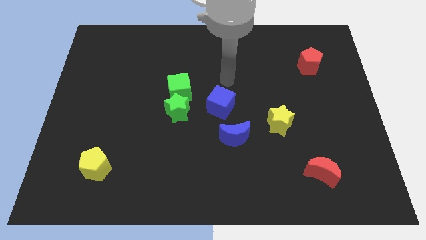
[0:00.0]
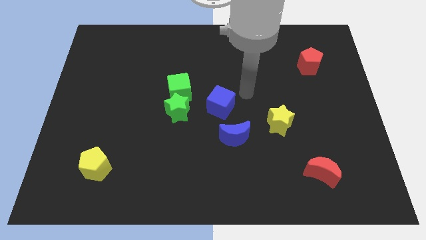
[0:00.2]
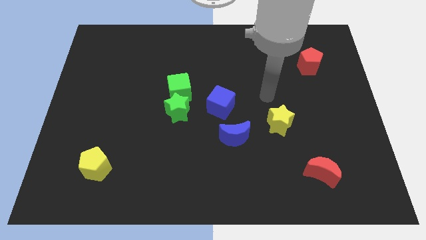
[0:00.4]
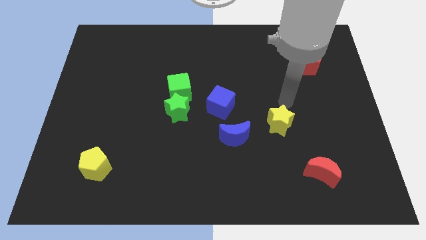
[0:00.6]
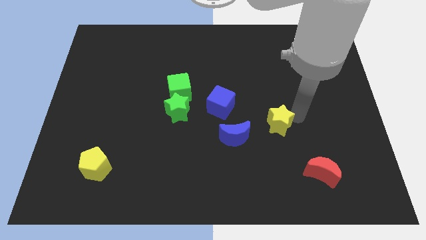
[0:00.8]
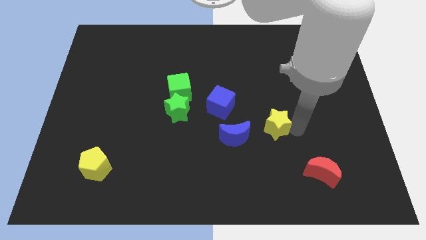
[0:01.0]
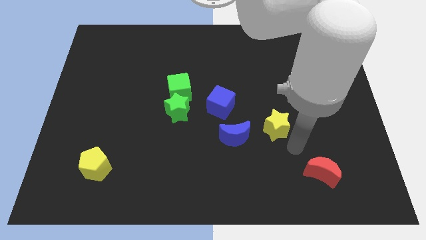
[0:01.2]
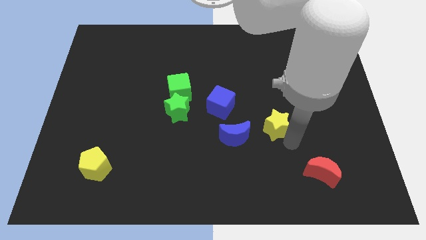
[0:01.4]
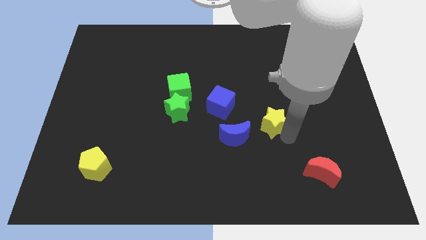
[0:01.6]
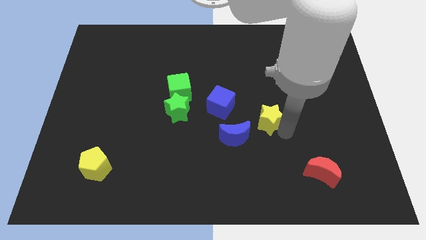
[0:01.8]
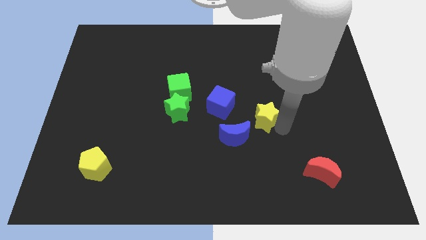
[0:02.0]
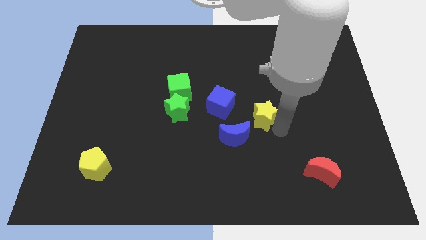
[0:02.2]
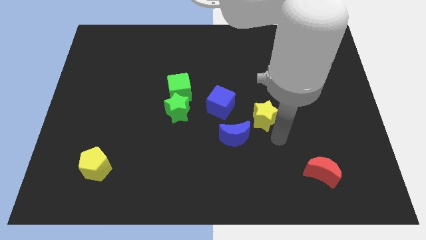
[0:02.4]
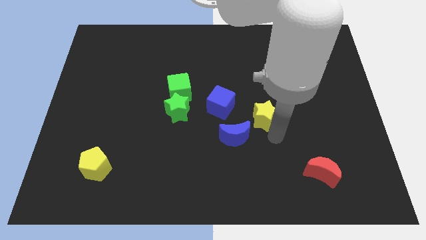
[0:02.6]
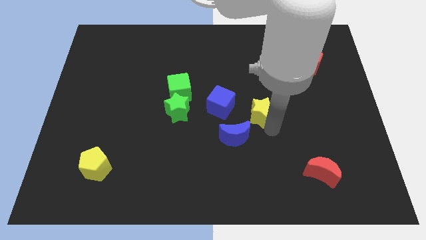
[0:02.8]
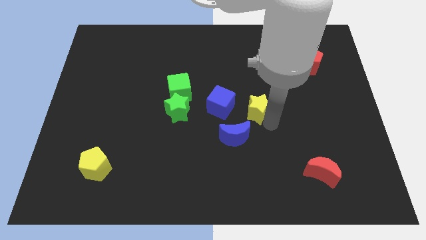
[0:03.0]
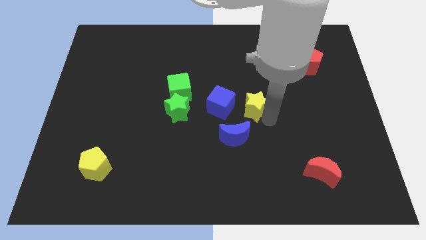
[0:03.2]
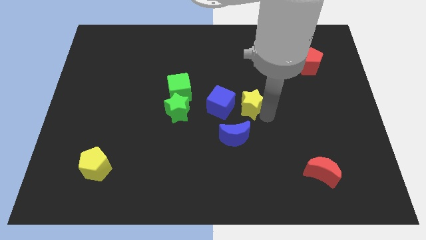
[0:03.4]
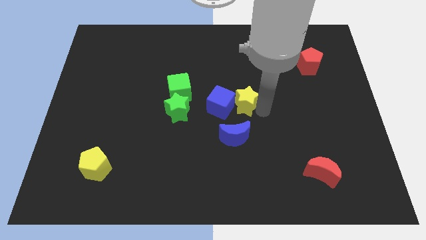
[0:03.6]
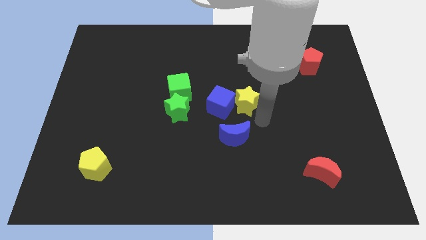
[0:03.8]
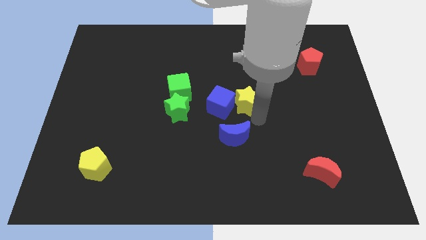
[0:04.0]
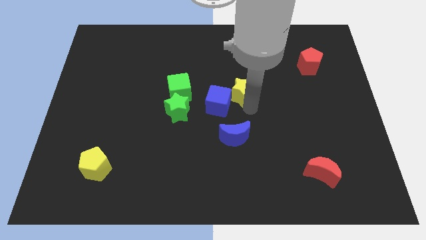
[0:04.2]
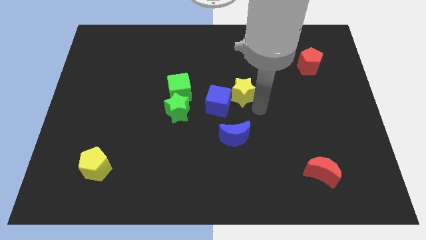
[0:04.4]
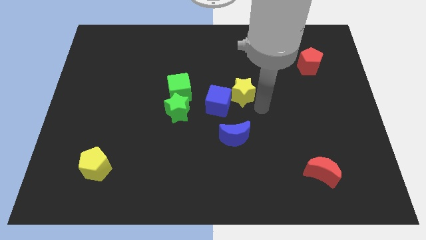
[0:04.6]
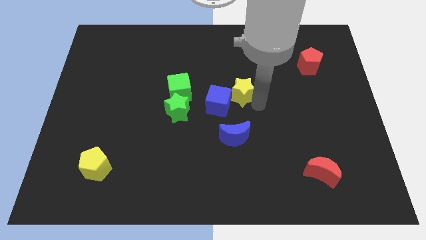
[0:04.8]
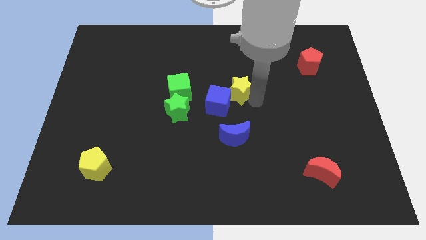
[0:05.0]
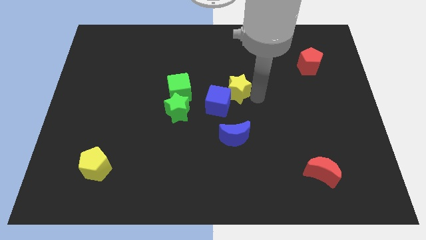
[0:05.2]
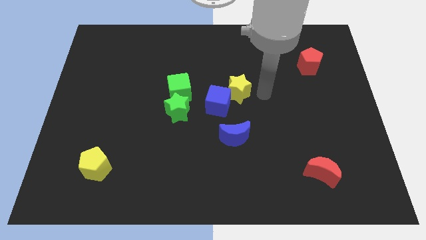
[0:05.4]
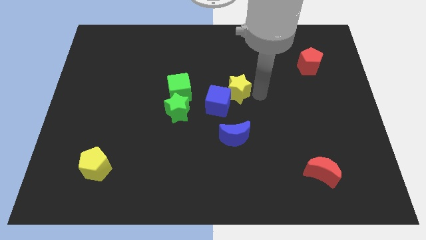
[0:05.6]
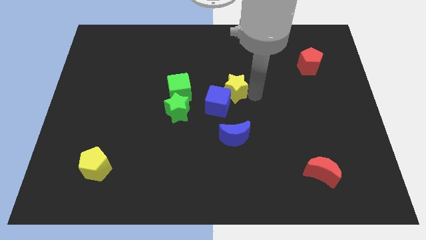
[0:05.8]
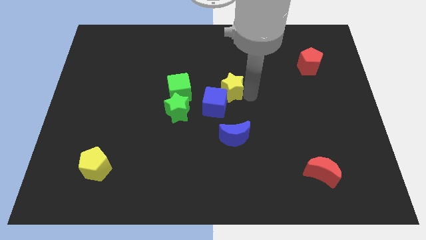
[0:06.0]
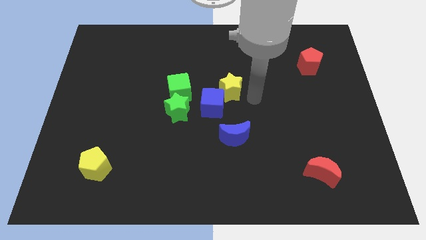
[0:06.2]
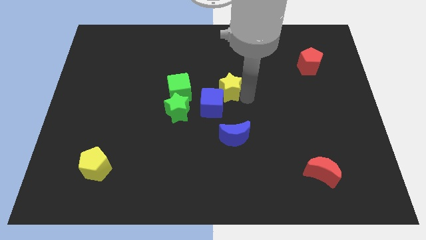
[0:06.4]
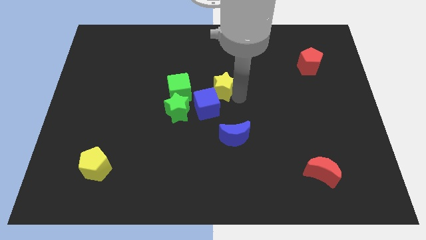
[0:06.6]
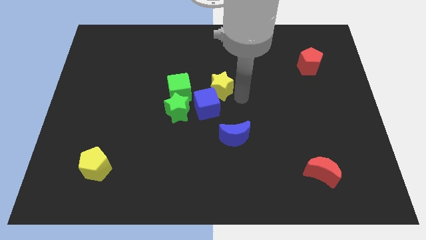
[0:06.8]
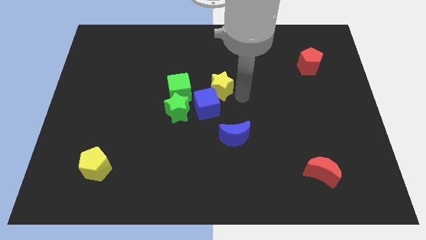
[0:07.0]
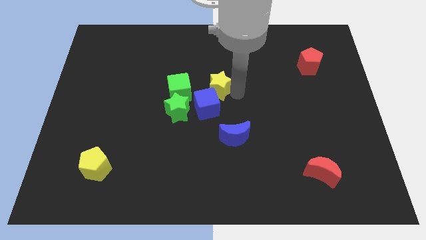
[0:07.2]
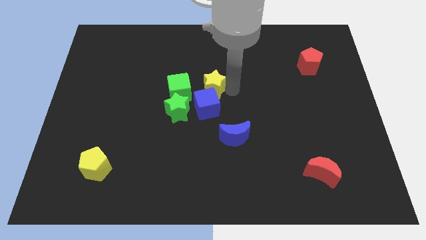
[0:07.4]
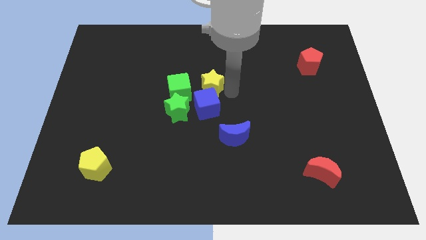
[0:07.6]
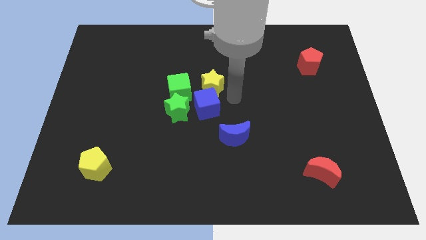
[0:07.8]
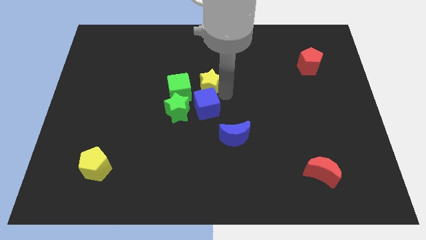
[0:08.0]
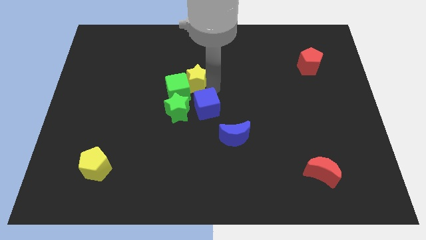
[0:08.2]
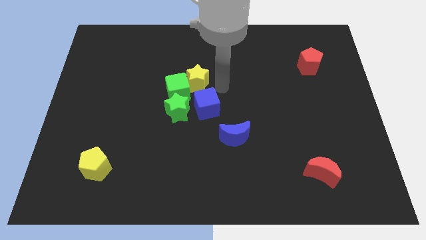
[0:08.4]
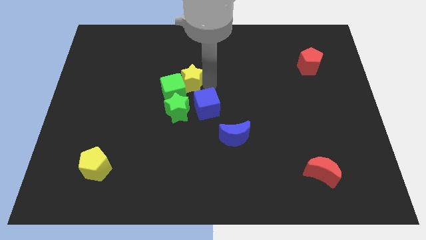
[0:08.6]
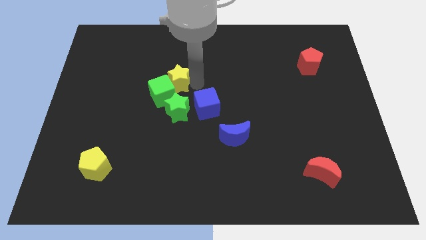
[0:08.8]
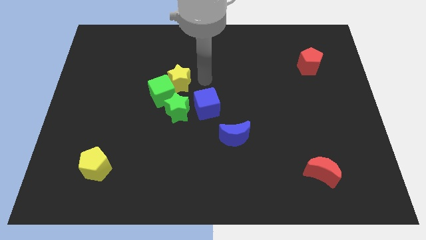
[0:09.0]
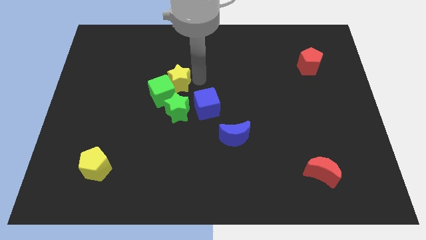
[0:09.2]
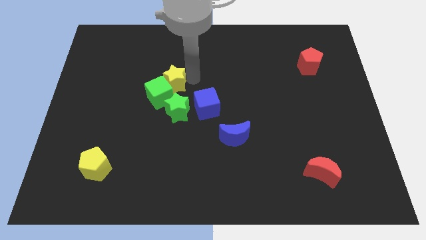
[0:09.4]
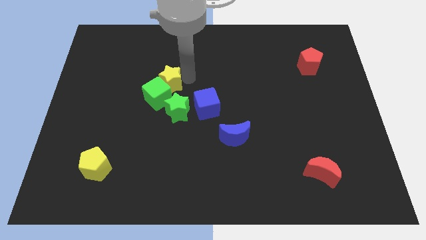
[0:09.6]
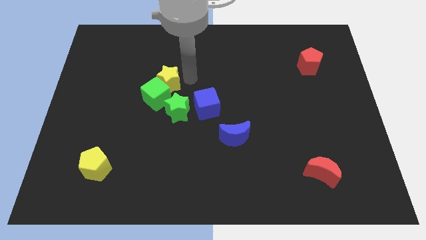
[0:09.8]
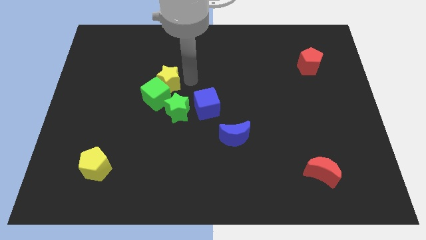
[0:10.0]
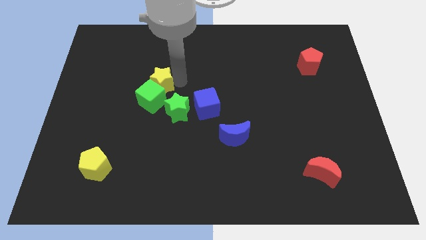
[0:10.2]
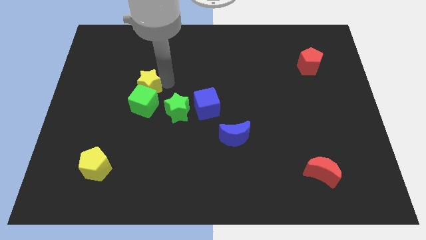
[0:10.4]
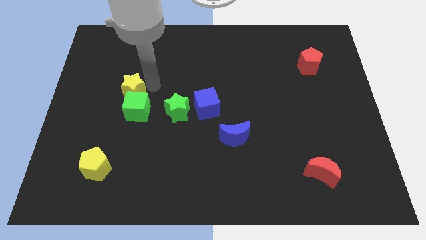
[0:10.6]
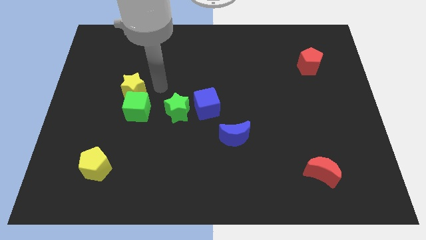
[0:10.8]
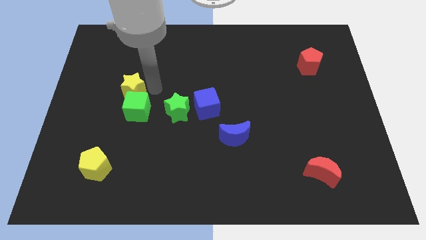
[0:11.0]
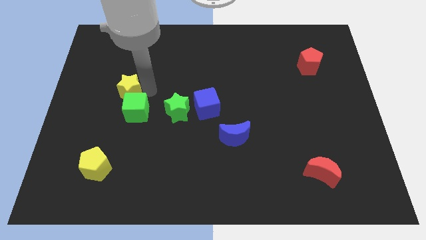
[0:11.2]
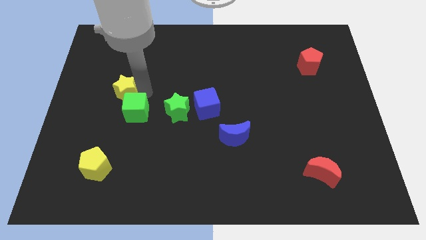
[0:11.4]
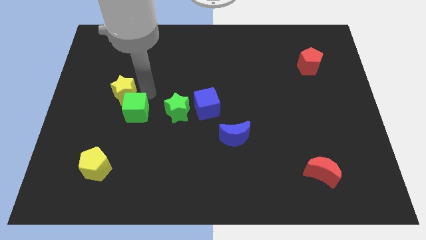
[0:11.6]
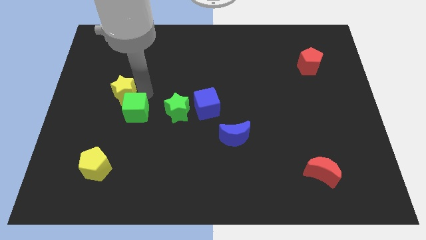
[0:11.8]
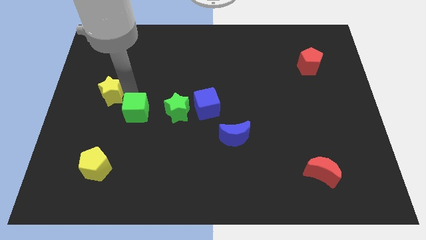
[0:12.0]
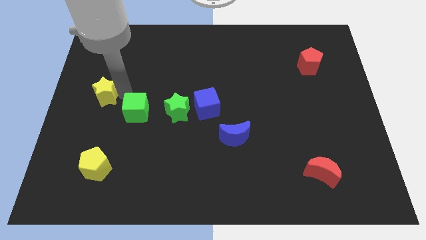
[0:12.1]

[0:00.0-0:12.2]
slide the yellow star to the center left
